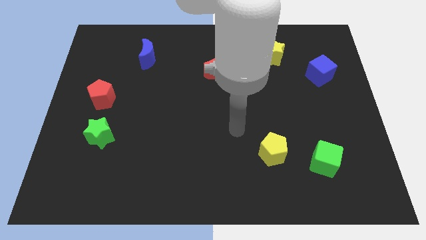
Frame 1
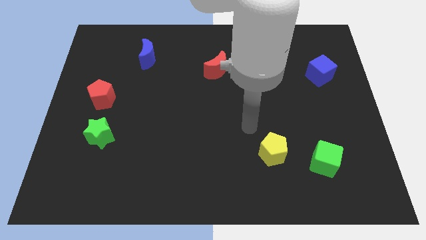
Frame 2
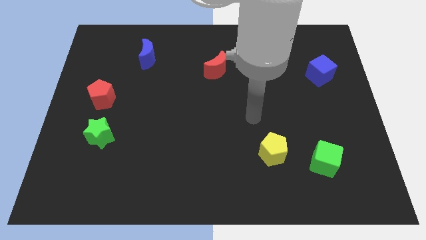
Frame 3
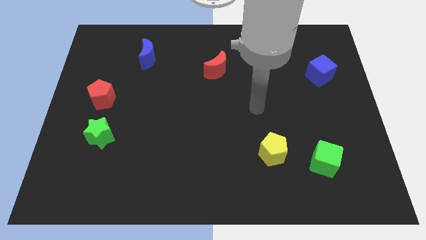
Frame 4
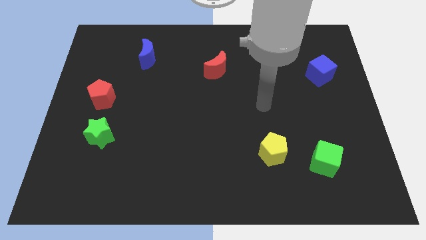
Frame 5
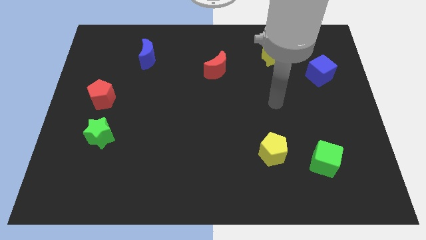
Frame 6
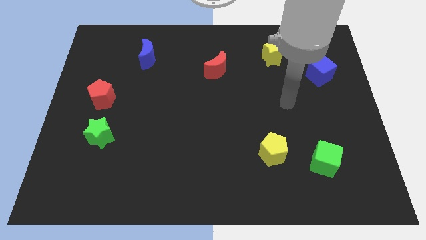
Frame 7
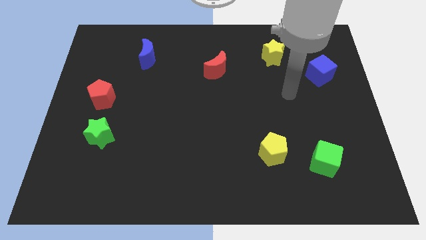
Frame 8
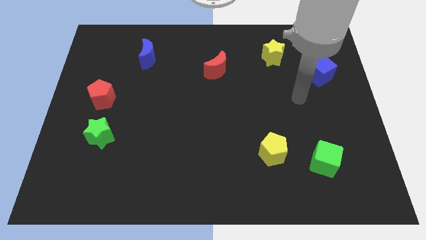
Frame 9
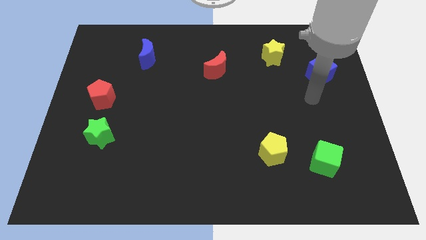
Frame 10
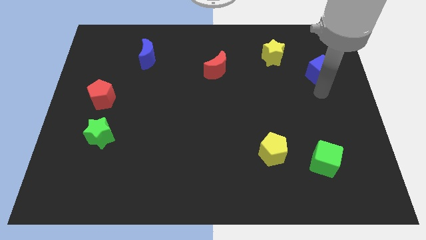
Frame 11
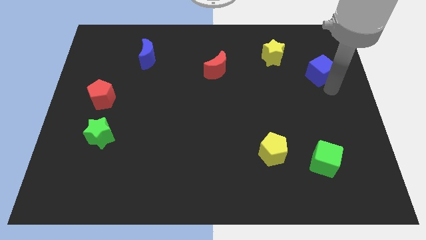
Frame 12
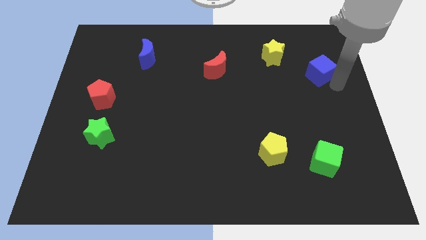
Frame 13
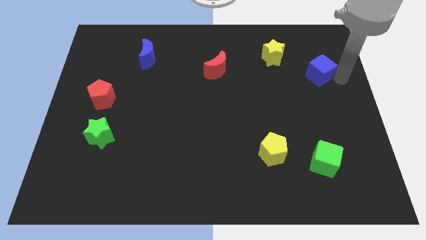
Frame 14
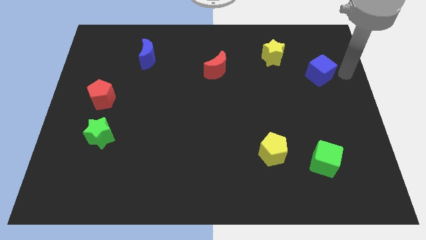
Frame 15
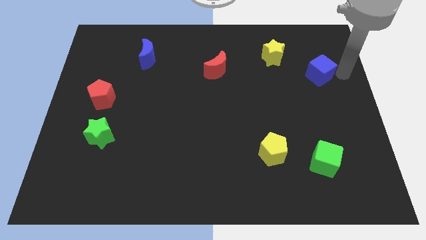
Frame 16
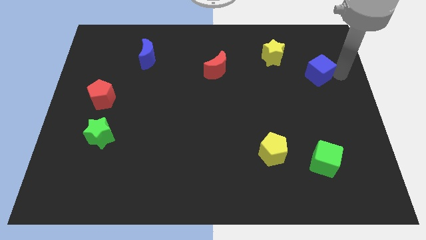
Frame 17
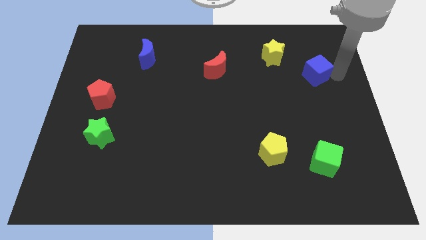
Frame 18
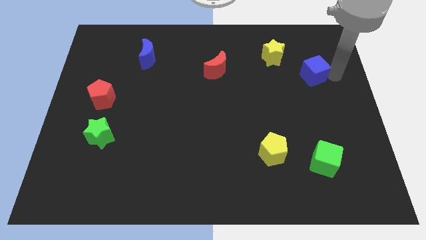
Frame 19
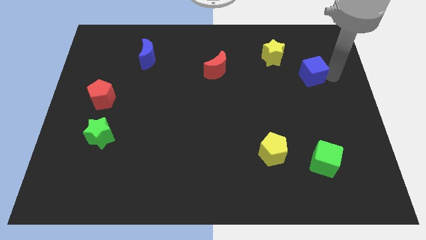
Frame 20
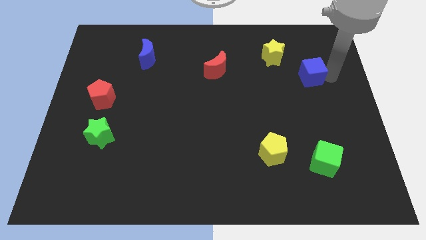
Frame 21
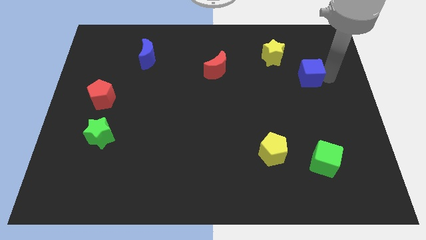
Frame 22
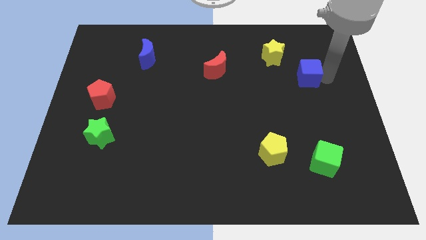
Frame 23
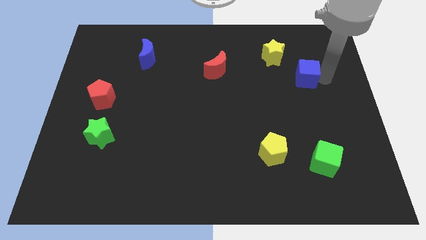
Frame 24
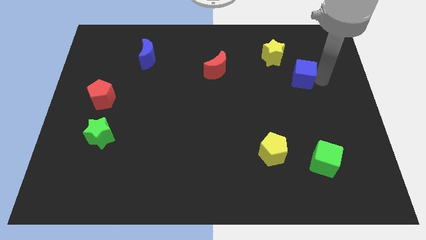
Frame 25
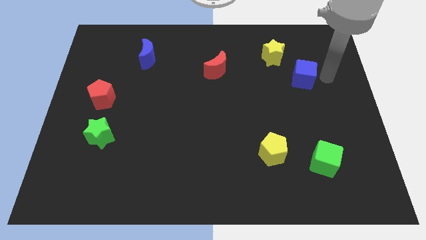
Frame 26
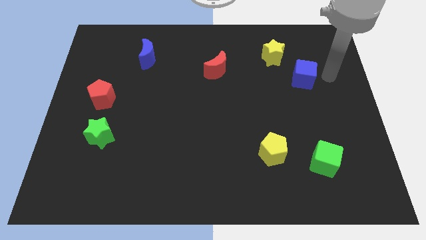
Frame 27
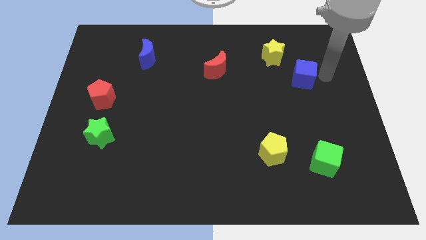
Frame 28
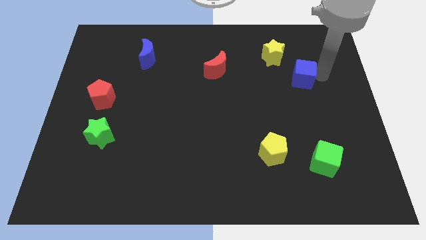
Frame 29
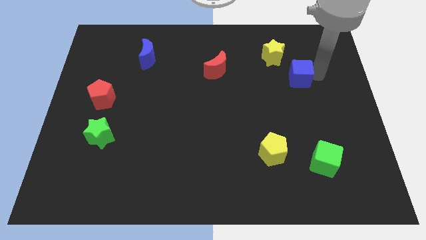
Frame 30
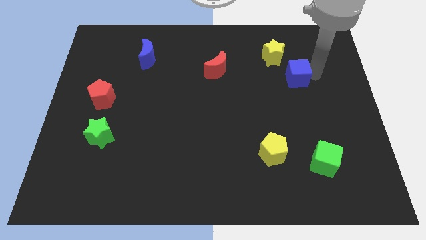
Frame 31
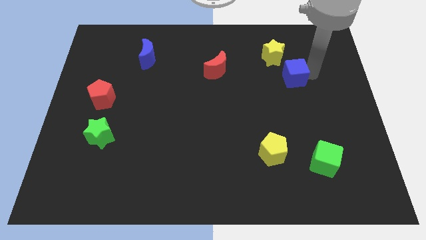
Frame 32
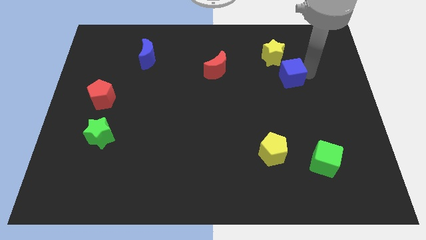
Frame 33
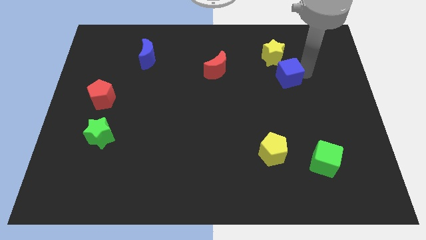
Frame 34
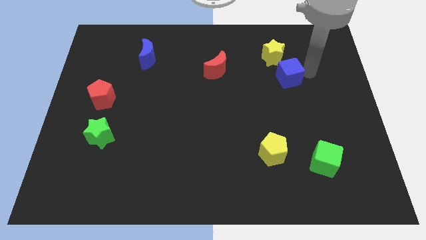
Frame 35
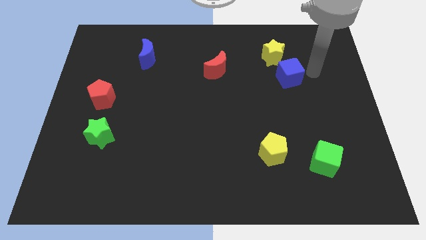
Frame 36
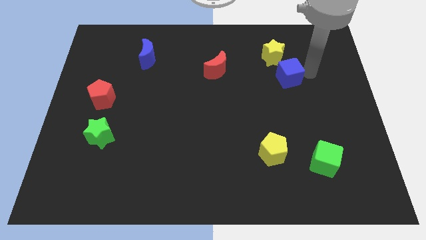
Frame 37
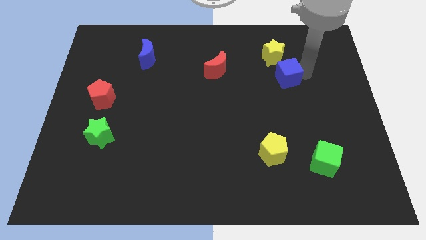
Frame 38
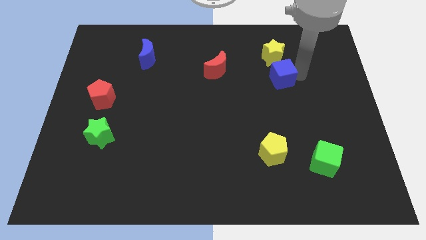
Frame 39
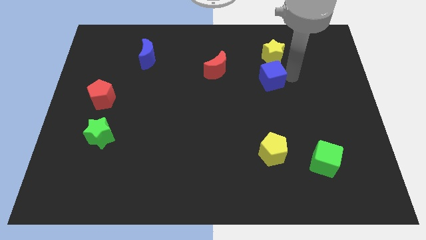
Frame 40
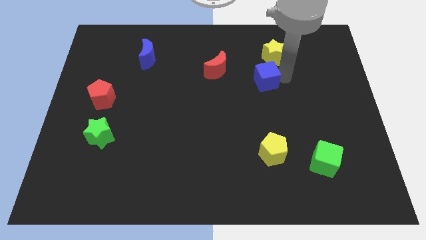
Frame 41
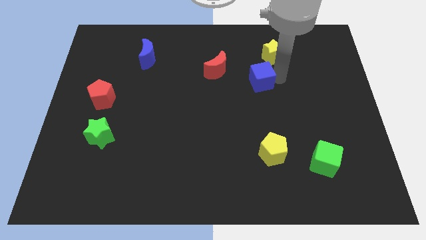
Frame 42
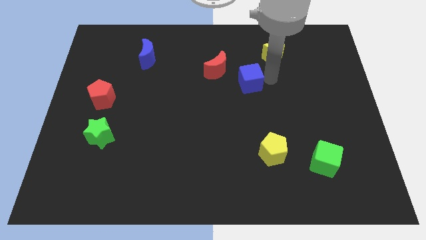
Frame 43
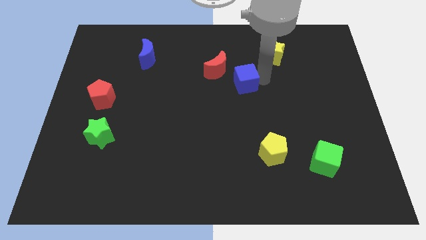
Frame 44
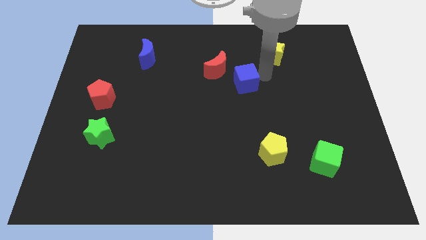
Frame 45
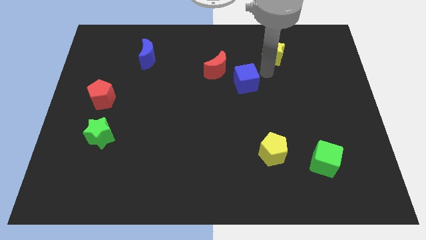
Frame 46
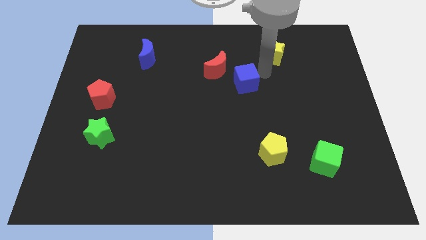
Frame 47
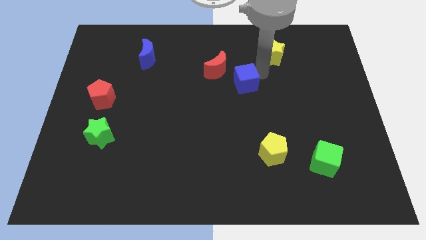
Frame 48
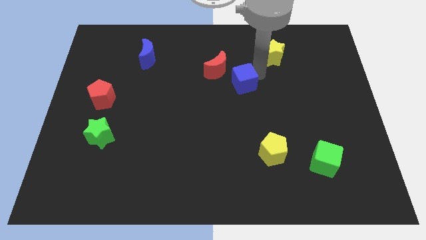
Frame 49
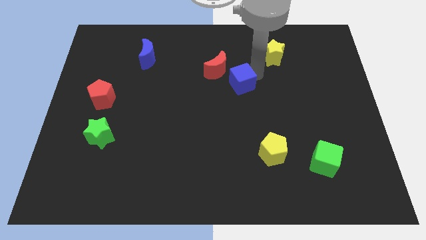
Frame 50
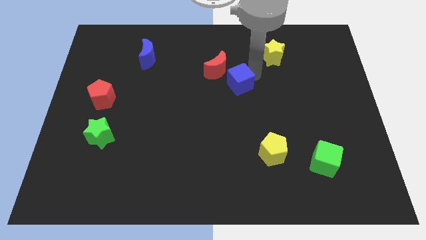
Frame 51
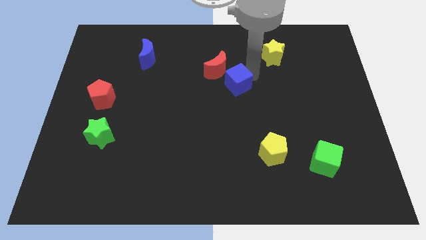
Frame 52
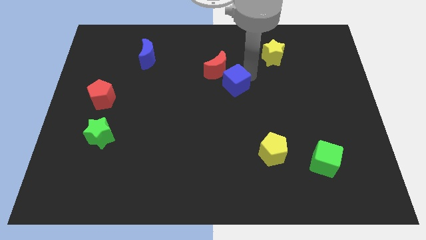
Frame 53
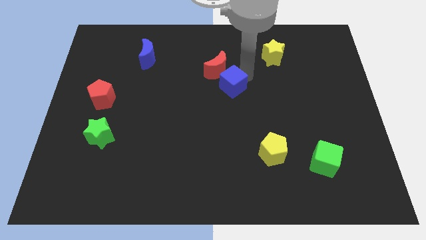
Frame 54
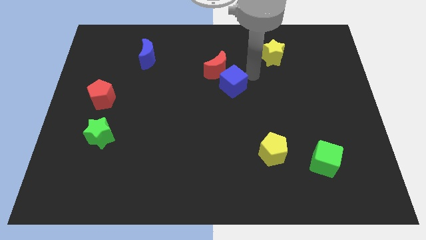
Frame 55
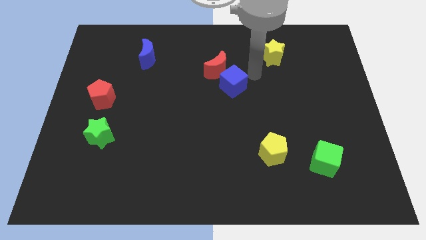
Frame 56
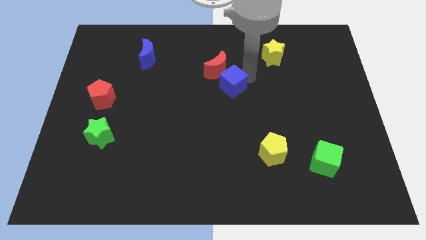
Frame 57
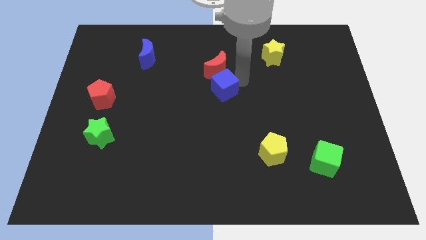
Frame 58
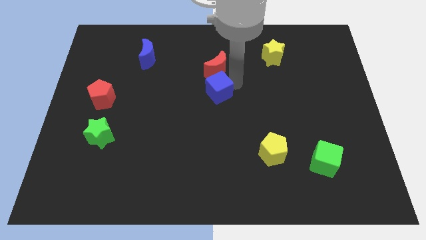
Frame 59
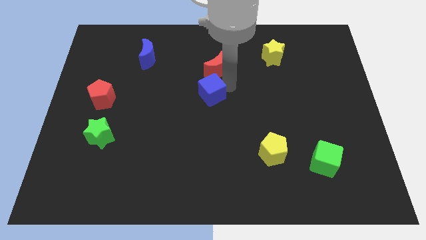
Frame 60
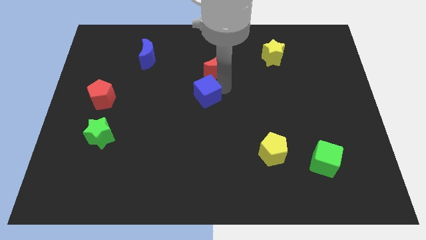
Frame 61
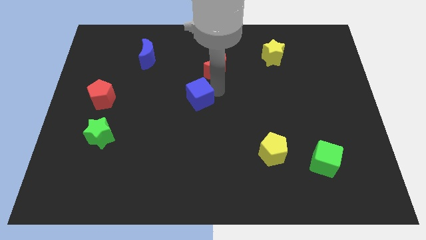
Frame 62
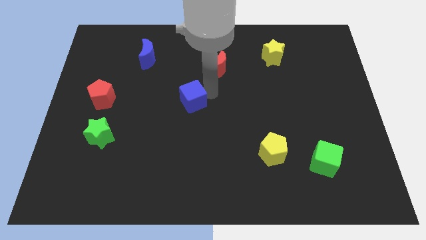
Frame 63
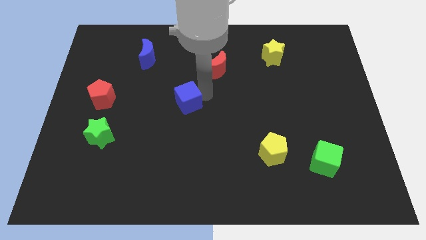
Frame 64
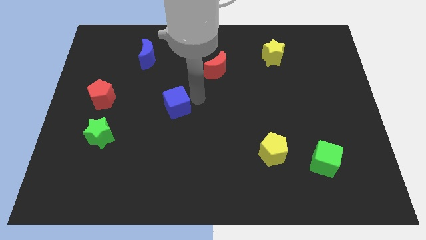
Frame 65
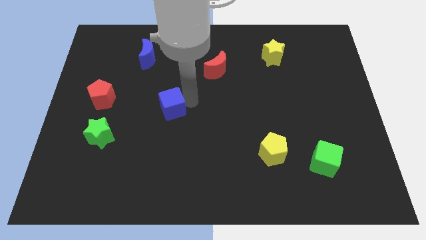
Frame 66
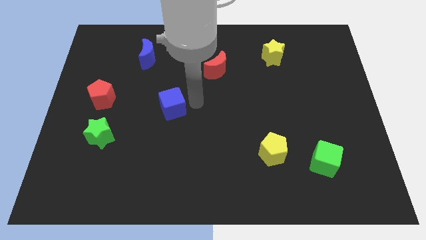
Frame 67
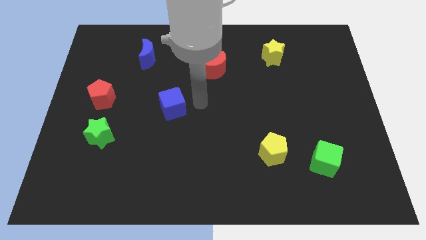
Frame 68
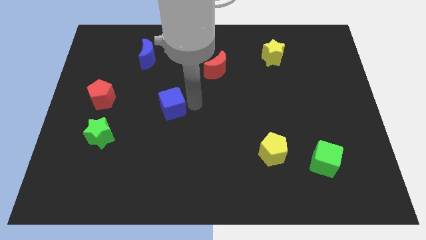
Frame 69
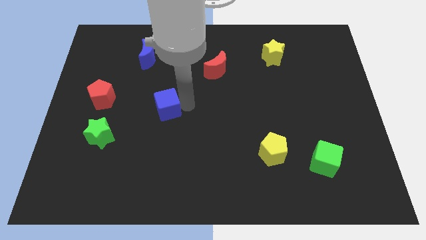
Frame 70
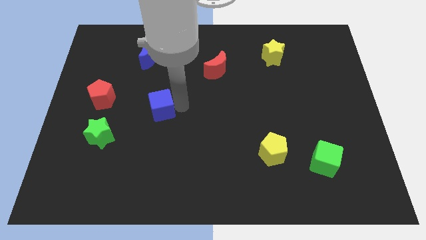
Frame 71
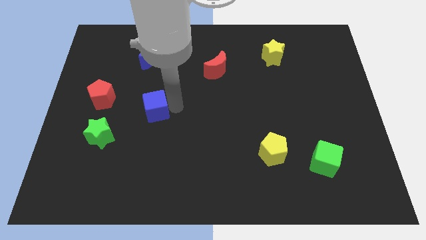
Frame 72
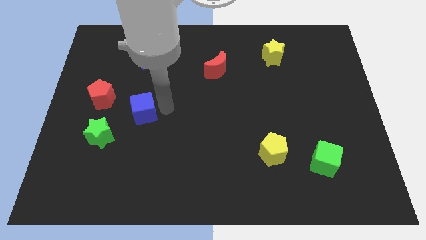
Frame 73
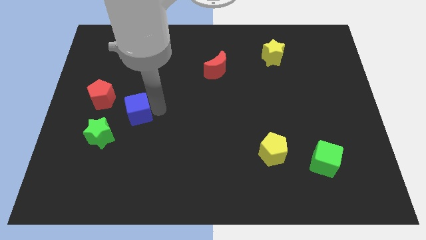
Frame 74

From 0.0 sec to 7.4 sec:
push the blue cube to the bottom right of the red pentagon
